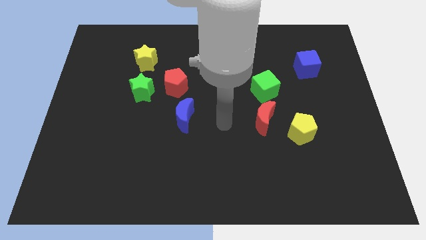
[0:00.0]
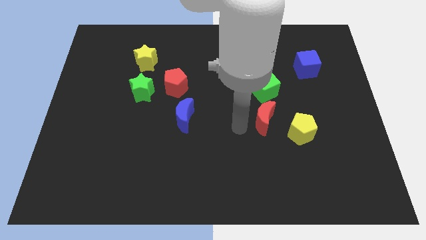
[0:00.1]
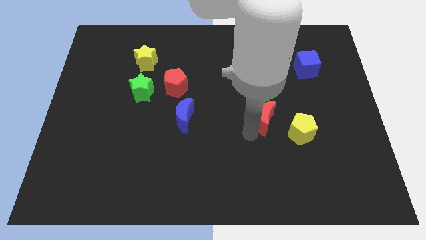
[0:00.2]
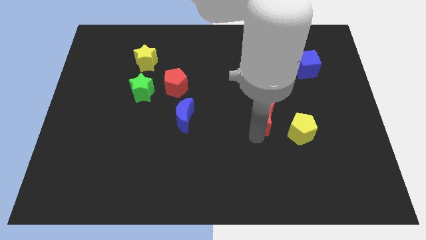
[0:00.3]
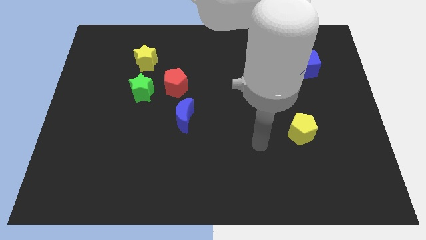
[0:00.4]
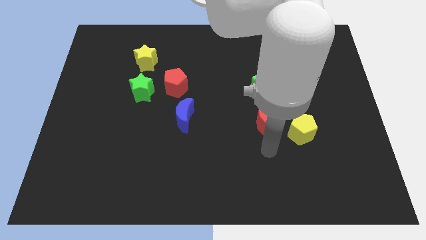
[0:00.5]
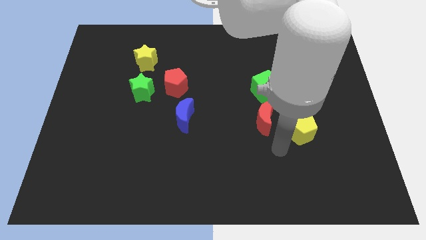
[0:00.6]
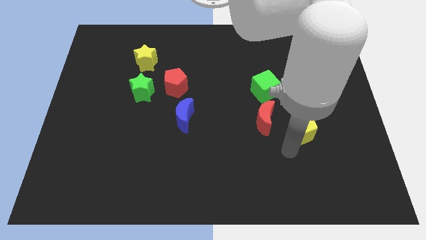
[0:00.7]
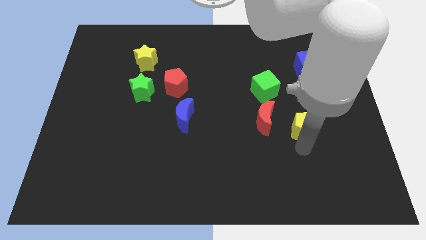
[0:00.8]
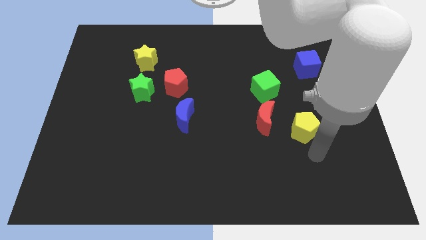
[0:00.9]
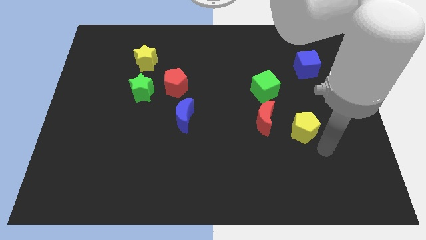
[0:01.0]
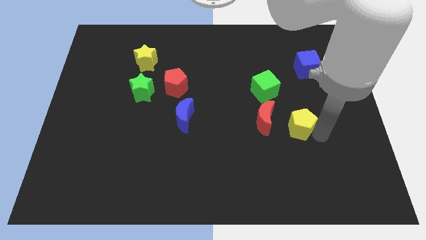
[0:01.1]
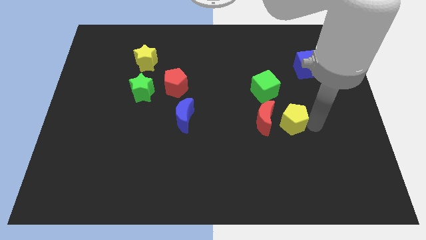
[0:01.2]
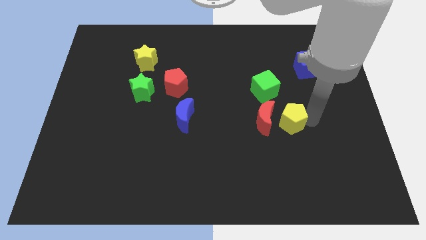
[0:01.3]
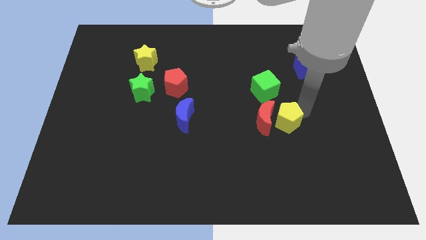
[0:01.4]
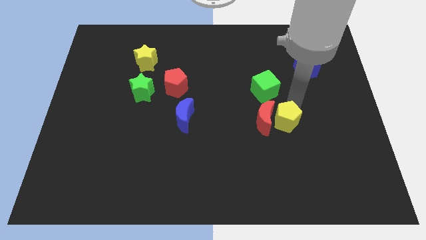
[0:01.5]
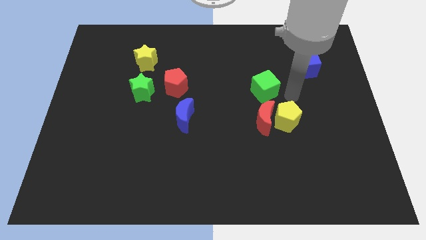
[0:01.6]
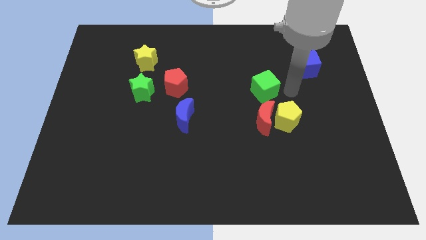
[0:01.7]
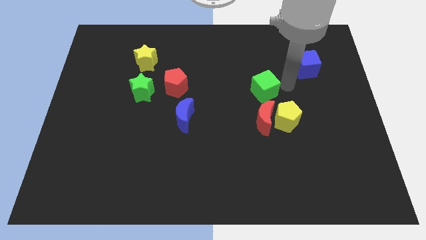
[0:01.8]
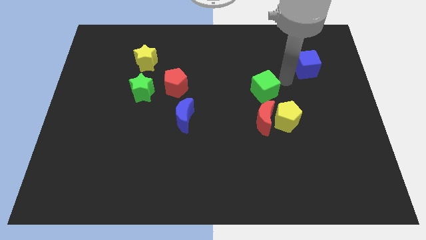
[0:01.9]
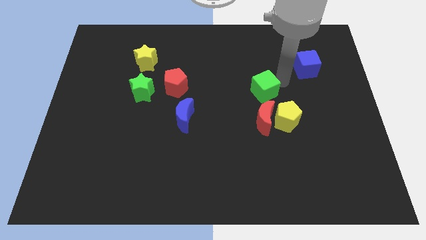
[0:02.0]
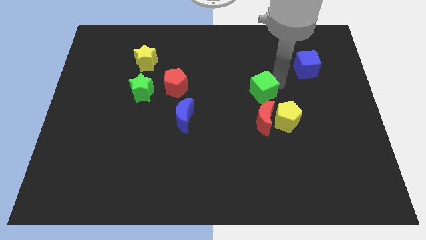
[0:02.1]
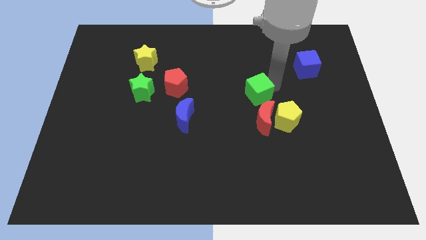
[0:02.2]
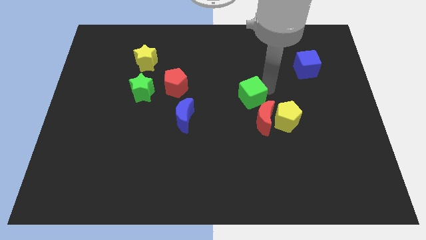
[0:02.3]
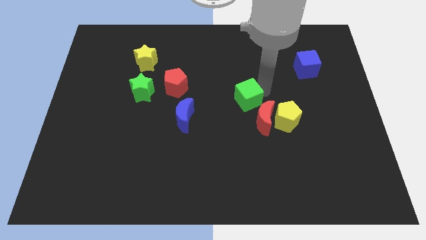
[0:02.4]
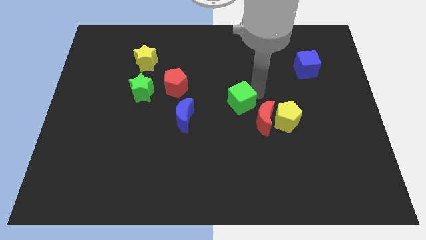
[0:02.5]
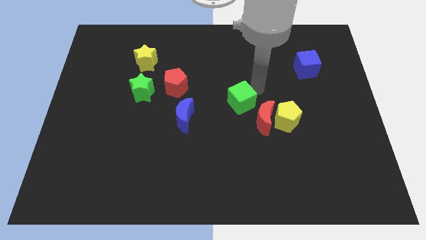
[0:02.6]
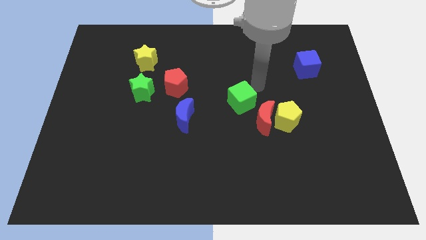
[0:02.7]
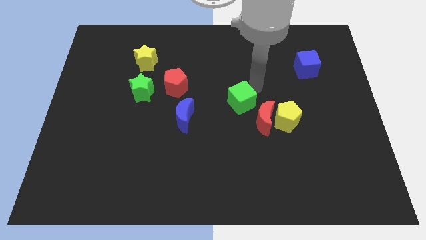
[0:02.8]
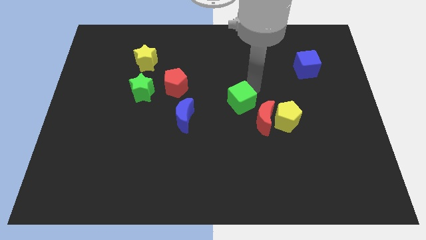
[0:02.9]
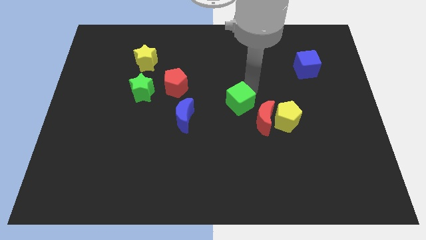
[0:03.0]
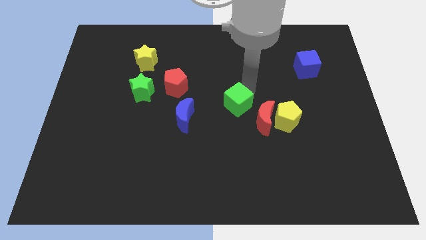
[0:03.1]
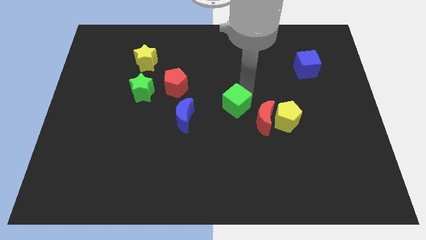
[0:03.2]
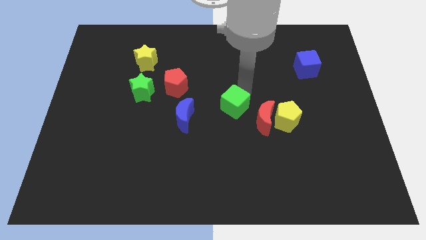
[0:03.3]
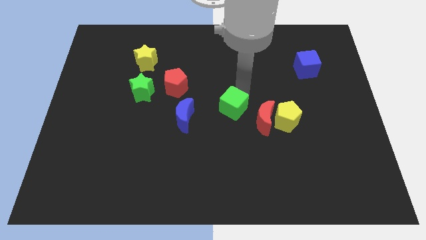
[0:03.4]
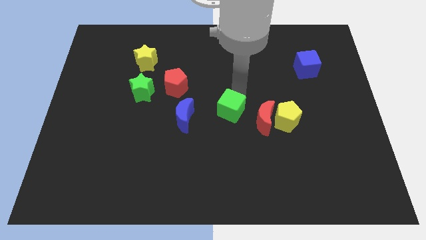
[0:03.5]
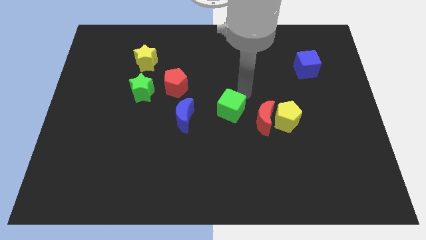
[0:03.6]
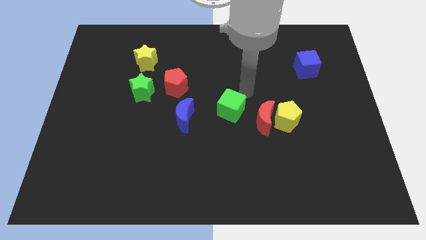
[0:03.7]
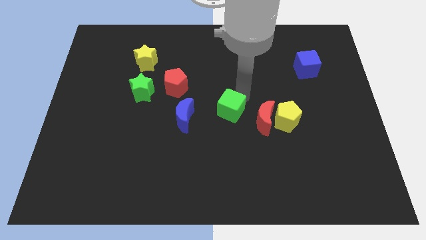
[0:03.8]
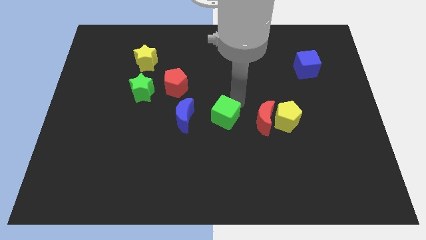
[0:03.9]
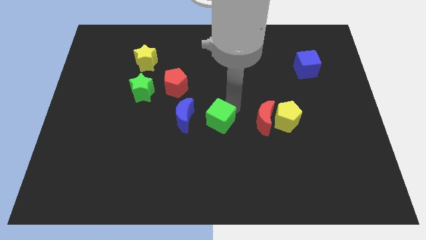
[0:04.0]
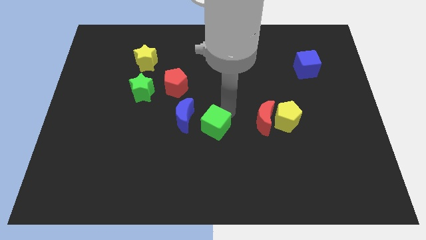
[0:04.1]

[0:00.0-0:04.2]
slide the green cube to the bottom right side of the blue moon

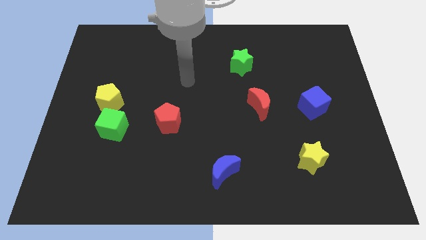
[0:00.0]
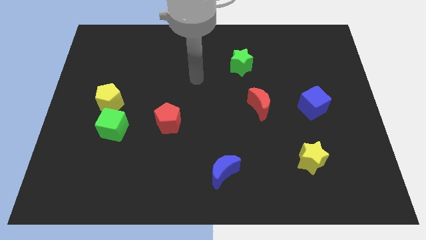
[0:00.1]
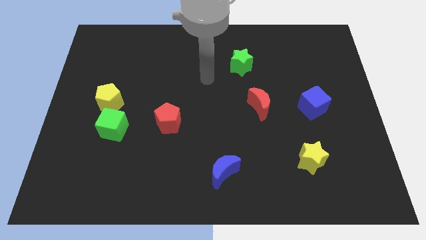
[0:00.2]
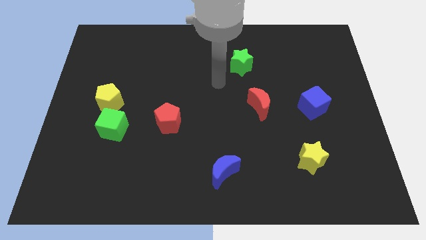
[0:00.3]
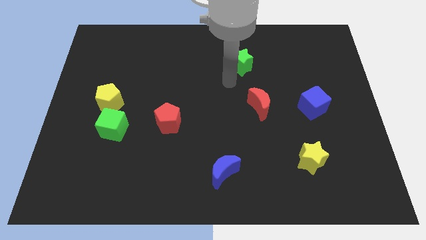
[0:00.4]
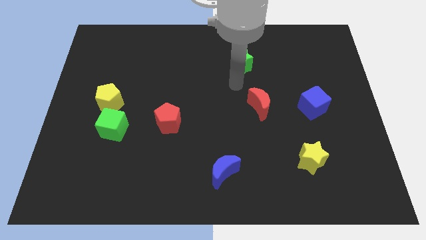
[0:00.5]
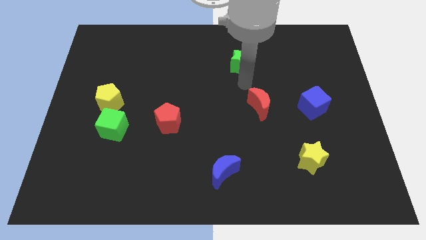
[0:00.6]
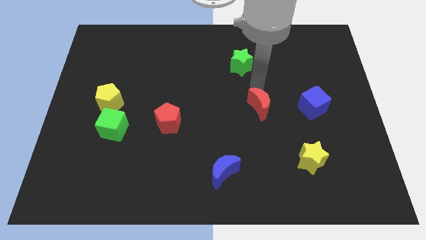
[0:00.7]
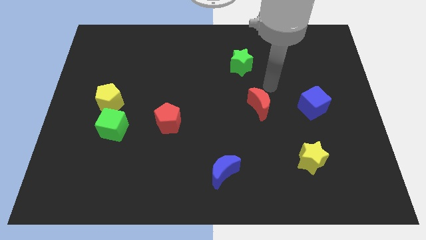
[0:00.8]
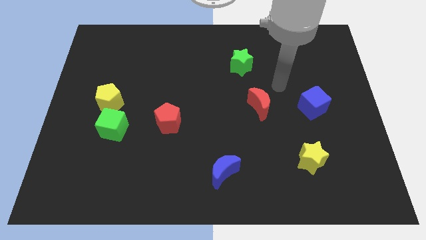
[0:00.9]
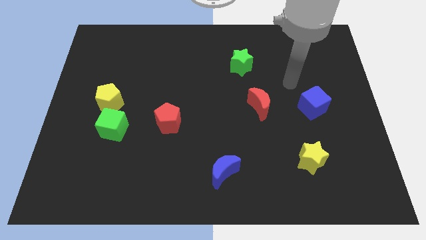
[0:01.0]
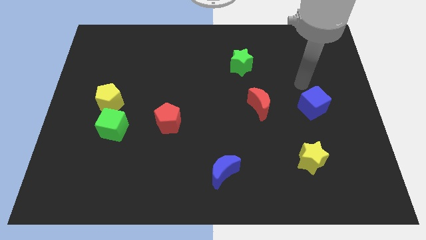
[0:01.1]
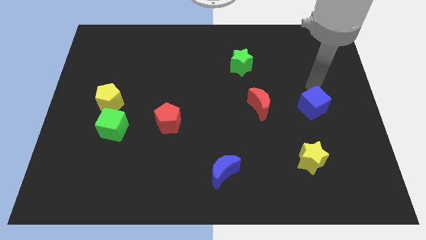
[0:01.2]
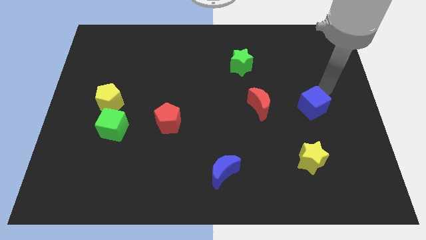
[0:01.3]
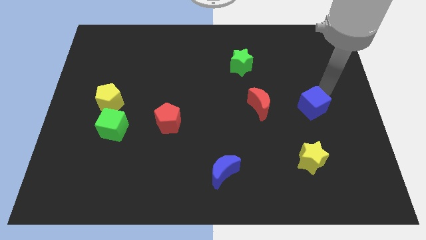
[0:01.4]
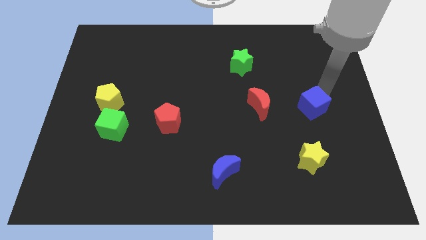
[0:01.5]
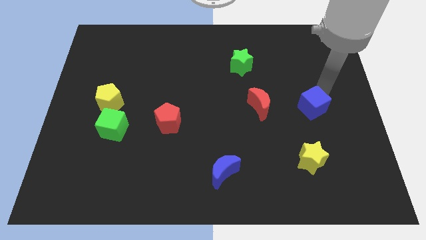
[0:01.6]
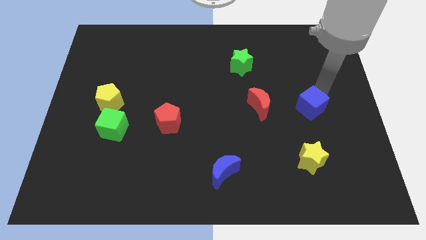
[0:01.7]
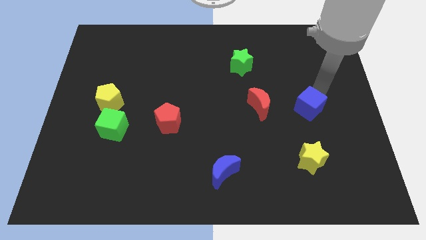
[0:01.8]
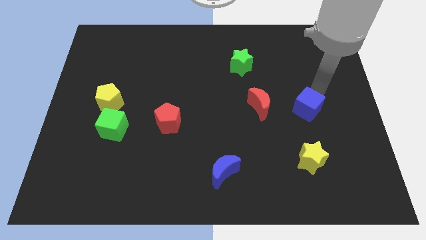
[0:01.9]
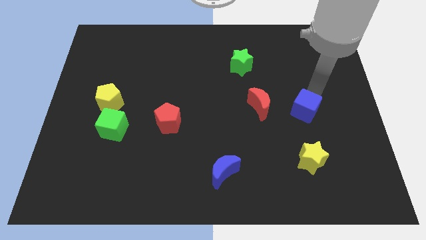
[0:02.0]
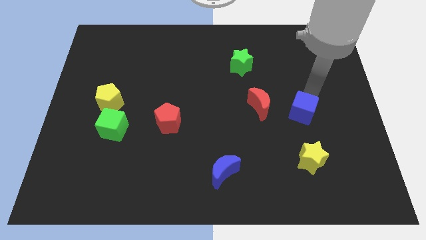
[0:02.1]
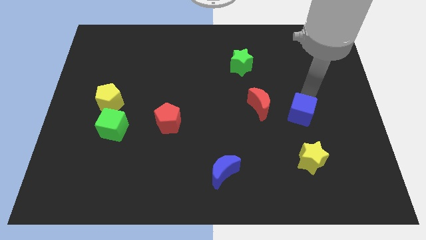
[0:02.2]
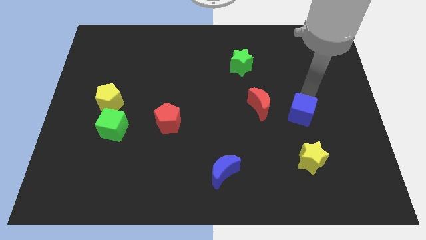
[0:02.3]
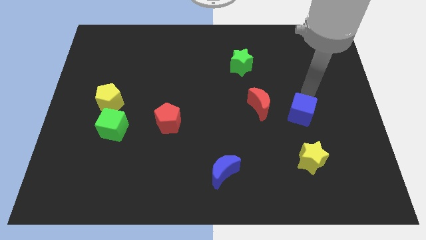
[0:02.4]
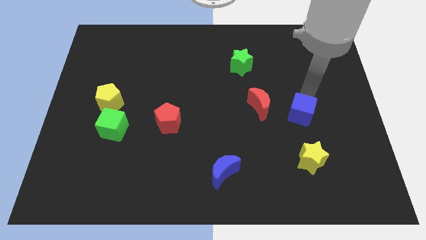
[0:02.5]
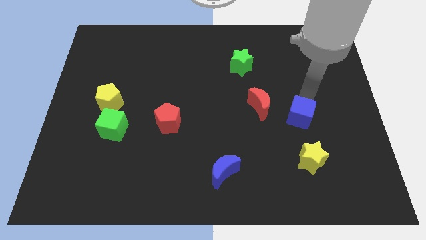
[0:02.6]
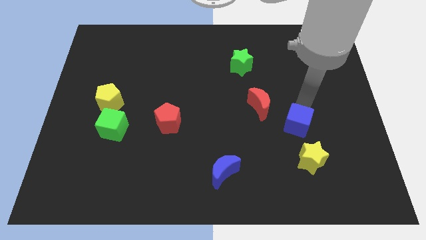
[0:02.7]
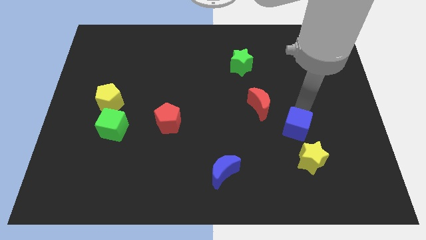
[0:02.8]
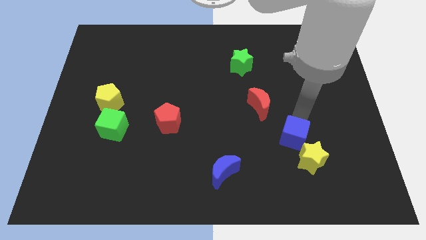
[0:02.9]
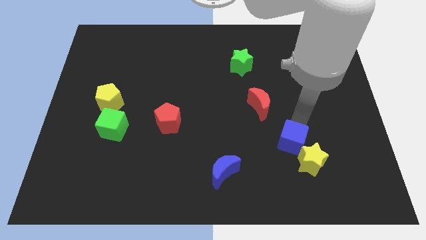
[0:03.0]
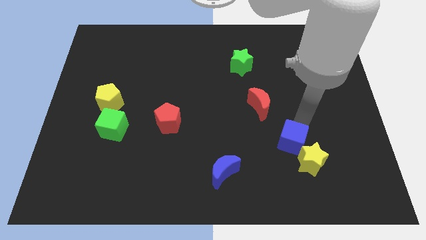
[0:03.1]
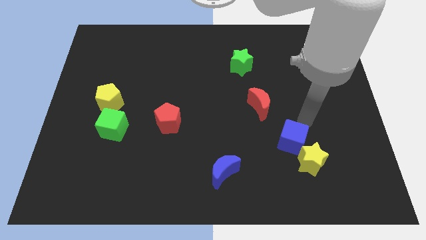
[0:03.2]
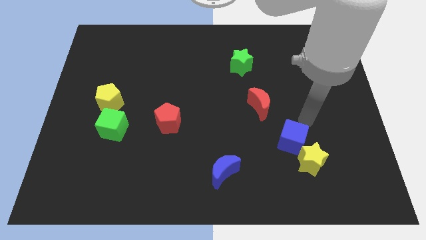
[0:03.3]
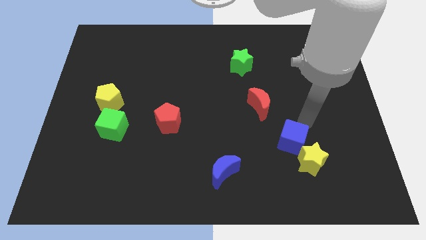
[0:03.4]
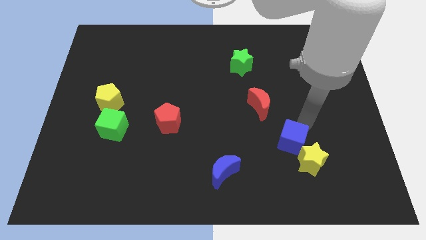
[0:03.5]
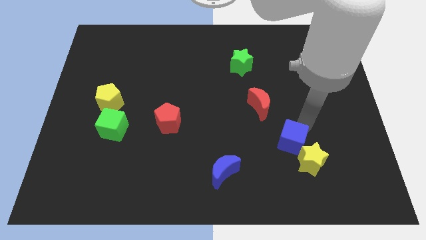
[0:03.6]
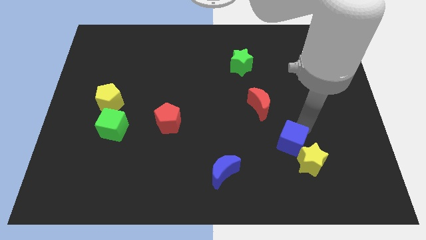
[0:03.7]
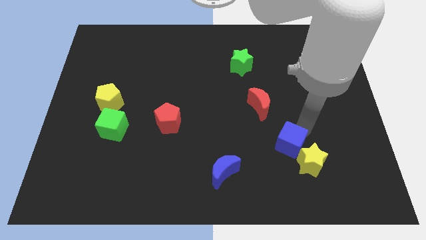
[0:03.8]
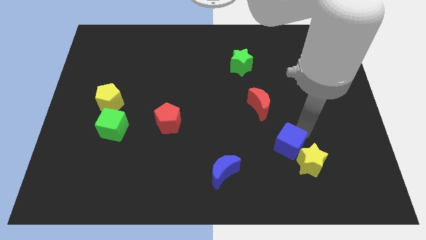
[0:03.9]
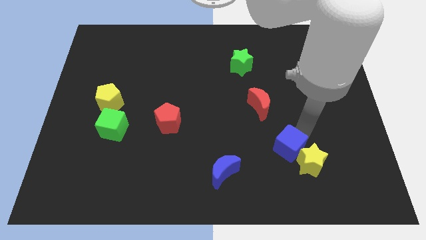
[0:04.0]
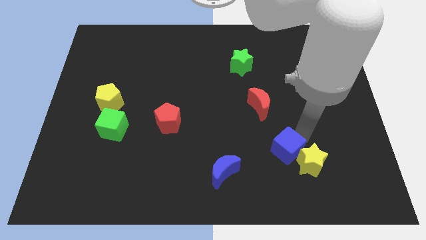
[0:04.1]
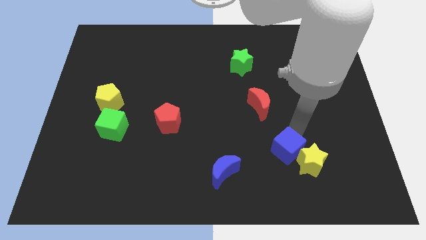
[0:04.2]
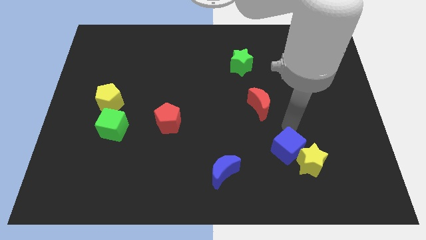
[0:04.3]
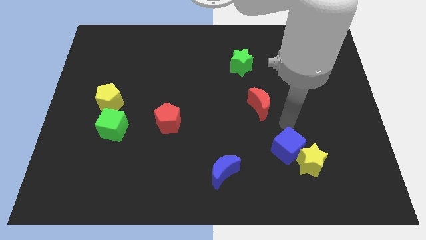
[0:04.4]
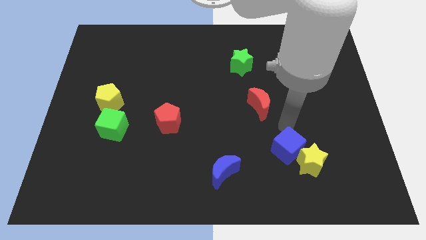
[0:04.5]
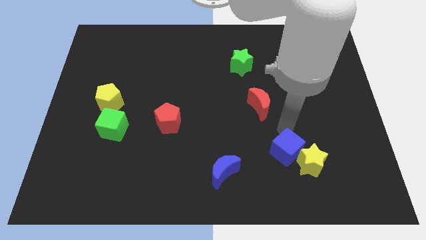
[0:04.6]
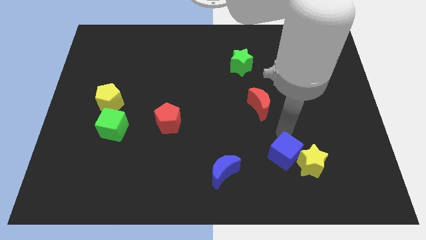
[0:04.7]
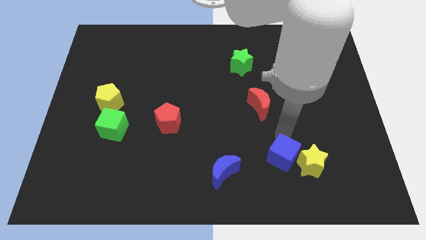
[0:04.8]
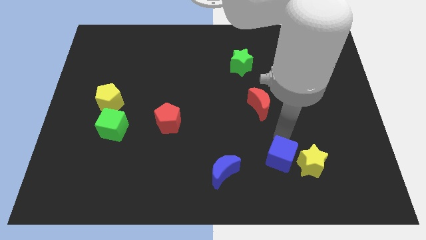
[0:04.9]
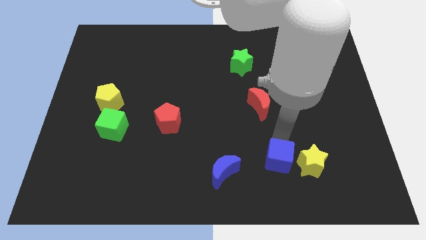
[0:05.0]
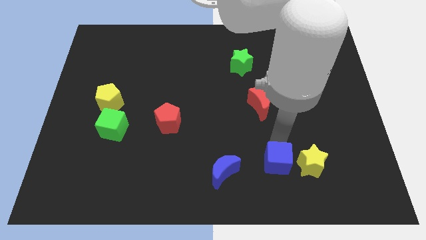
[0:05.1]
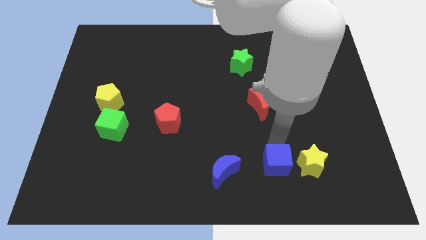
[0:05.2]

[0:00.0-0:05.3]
push the blue cube to the bottom left of the yellow star
